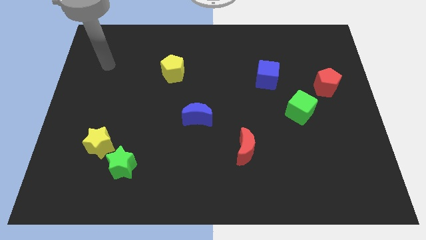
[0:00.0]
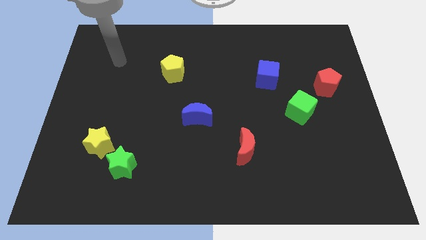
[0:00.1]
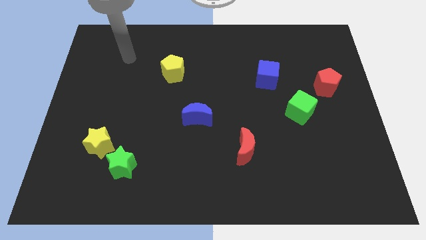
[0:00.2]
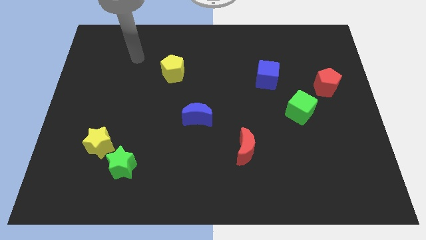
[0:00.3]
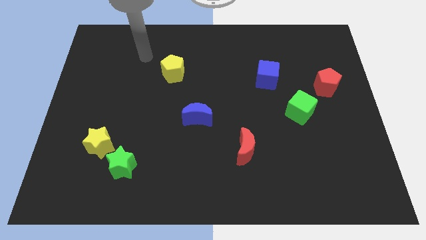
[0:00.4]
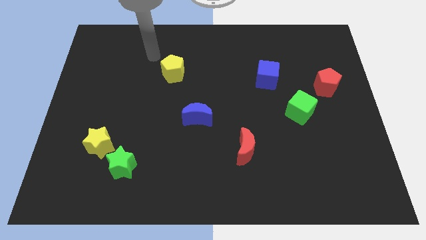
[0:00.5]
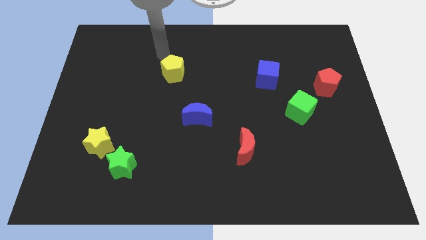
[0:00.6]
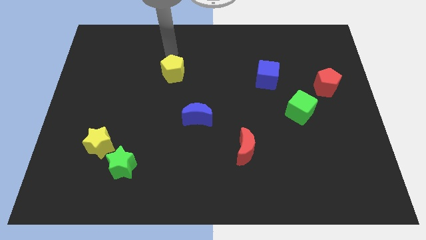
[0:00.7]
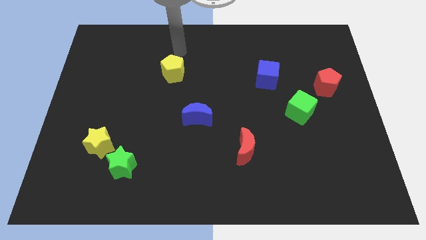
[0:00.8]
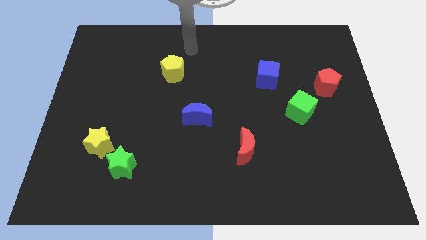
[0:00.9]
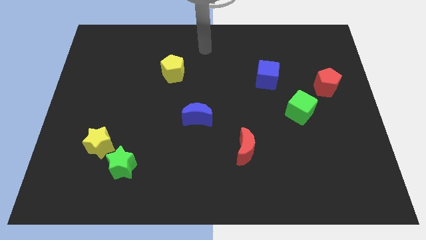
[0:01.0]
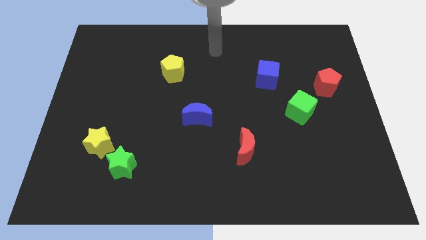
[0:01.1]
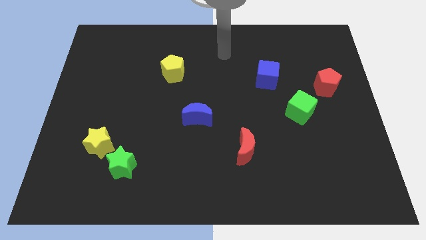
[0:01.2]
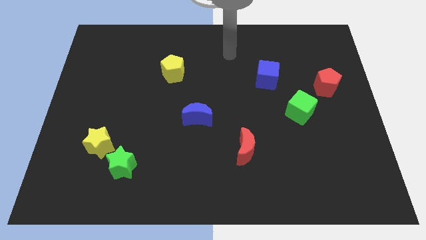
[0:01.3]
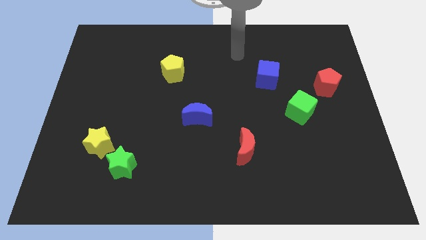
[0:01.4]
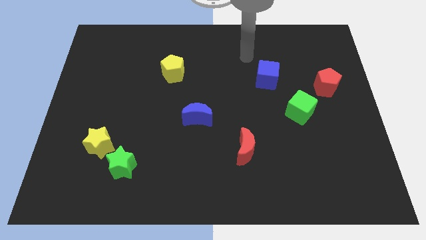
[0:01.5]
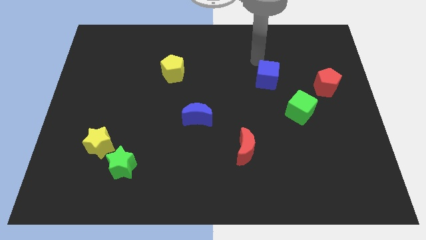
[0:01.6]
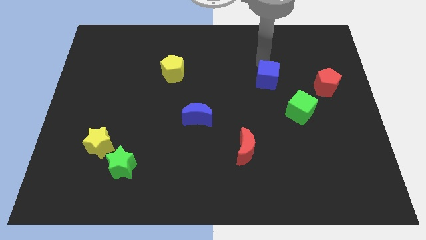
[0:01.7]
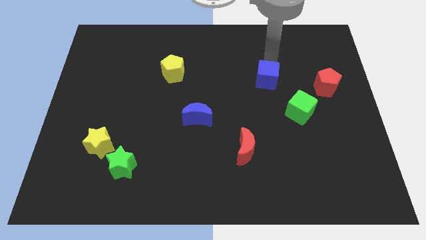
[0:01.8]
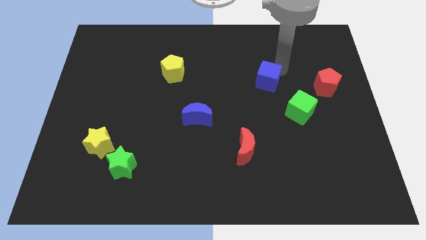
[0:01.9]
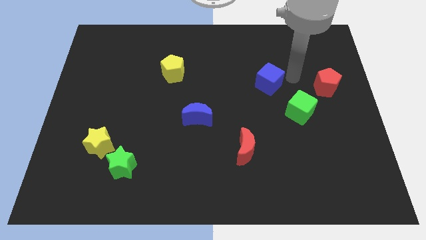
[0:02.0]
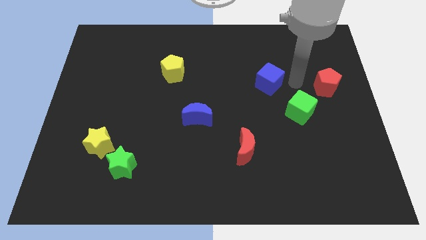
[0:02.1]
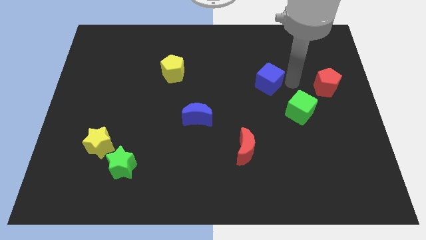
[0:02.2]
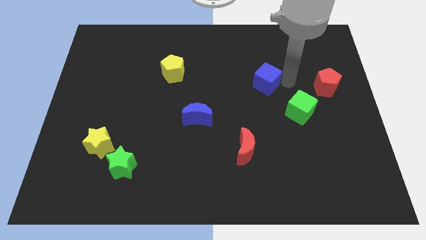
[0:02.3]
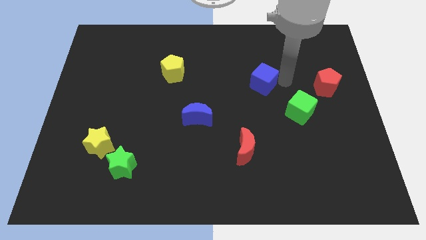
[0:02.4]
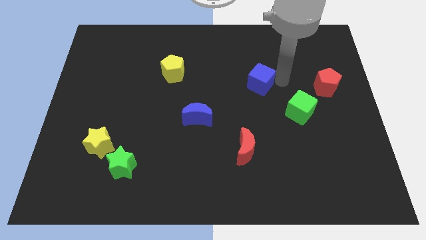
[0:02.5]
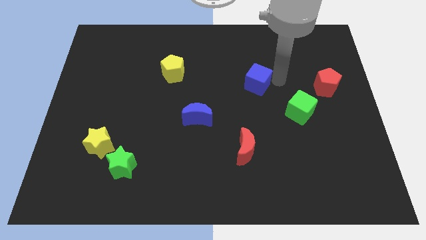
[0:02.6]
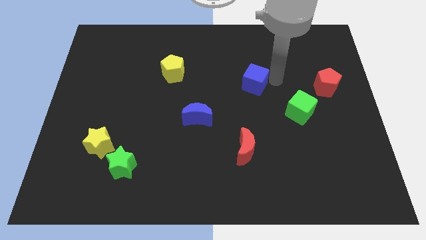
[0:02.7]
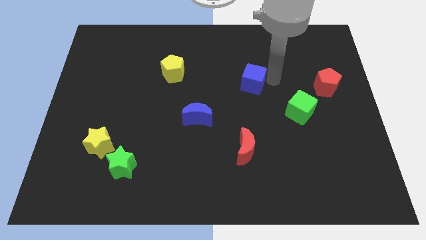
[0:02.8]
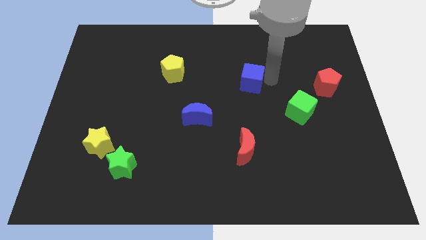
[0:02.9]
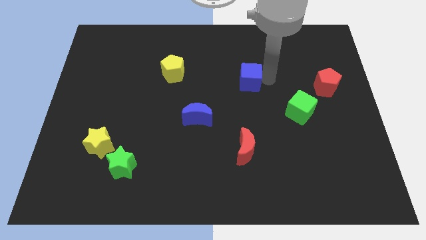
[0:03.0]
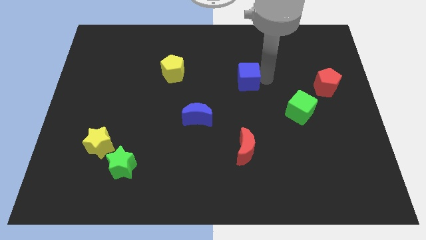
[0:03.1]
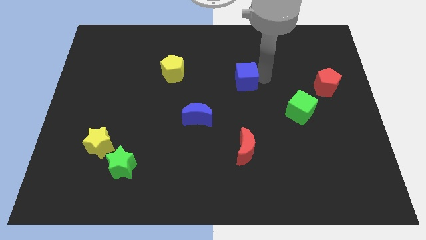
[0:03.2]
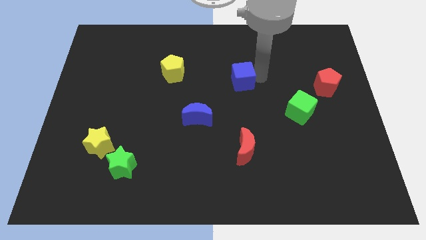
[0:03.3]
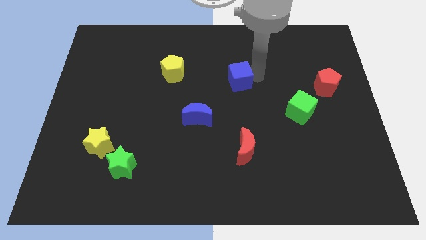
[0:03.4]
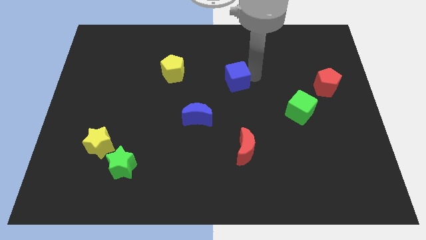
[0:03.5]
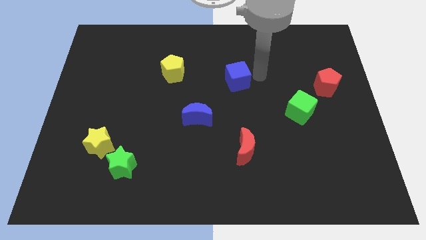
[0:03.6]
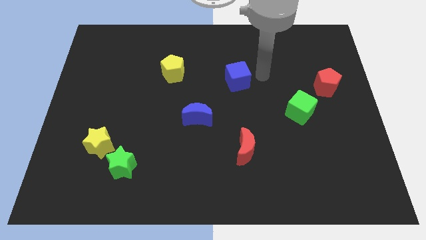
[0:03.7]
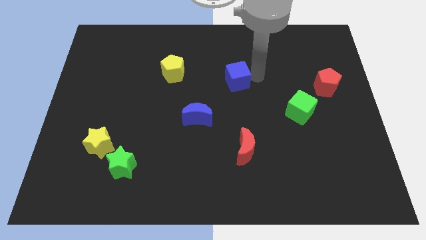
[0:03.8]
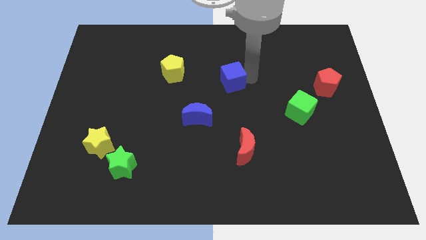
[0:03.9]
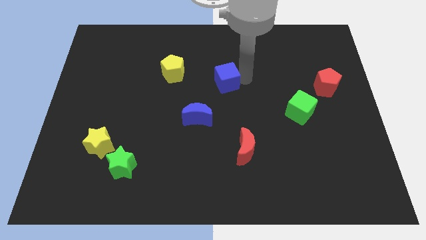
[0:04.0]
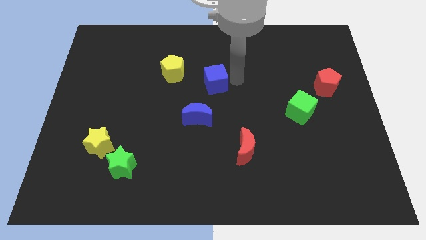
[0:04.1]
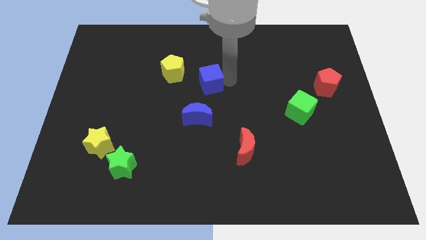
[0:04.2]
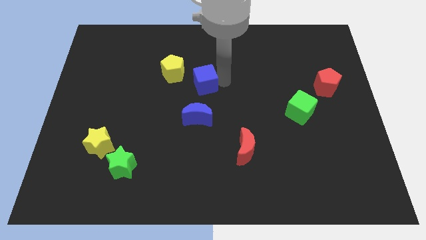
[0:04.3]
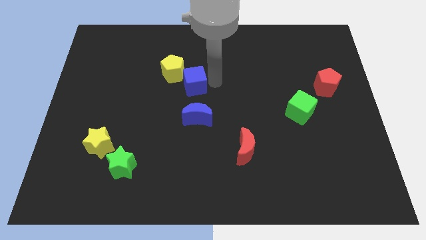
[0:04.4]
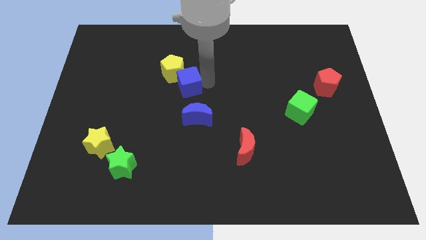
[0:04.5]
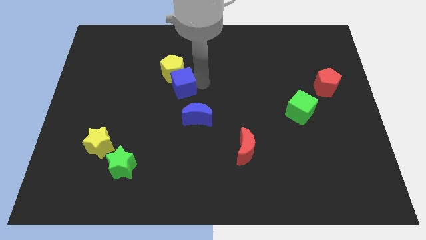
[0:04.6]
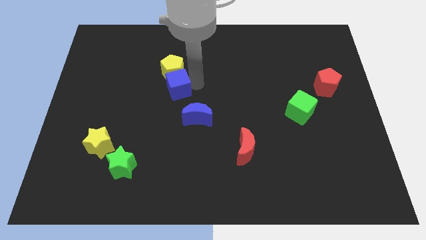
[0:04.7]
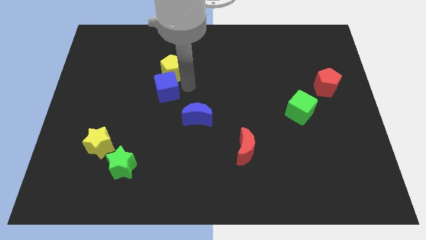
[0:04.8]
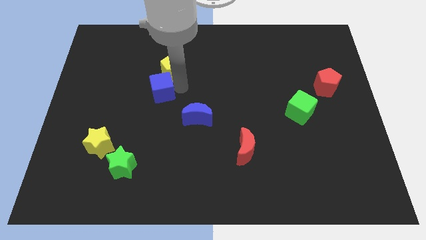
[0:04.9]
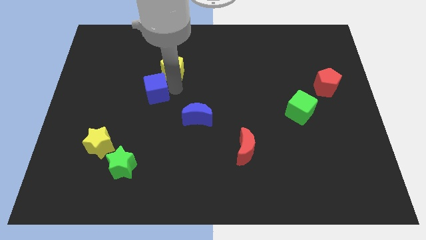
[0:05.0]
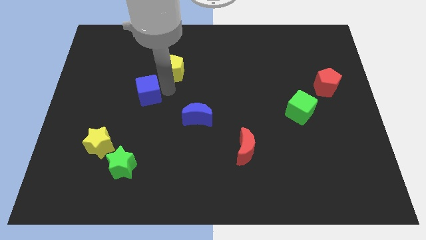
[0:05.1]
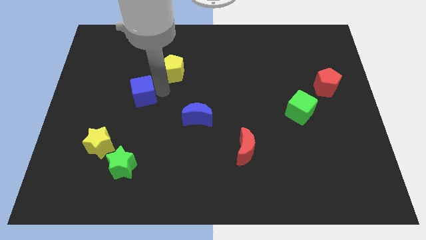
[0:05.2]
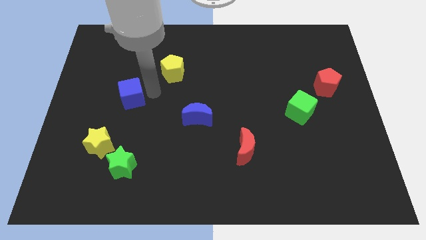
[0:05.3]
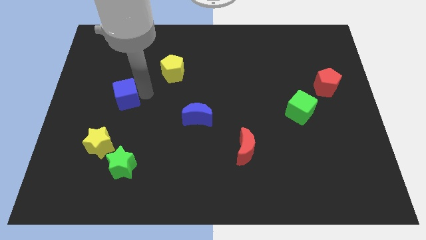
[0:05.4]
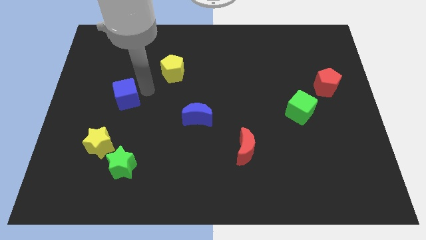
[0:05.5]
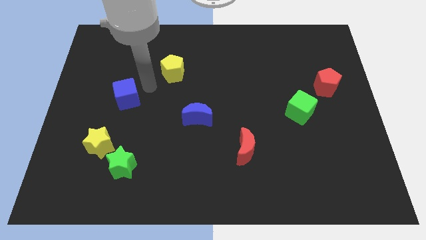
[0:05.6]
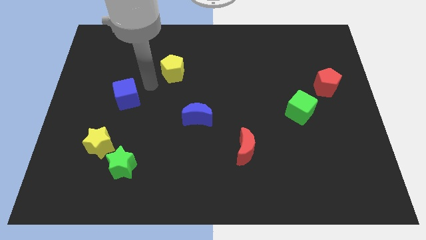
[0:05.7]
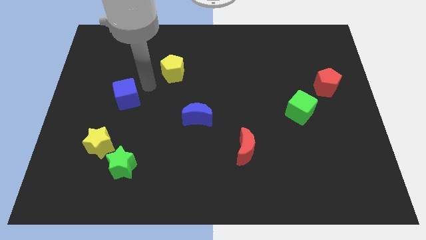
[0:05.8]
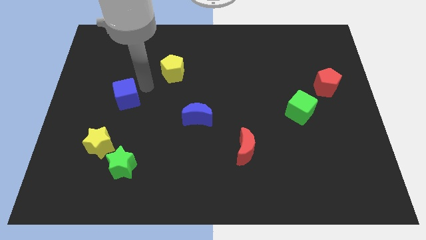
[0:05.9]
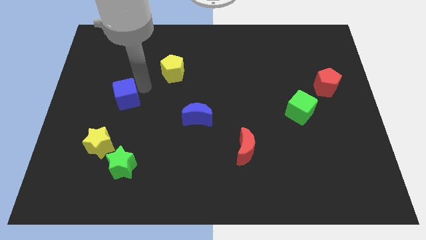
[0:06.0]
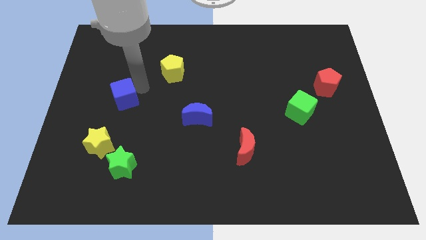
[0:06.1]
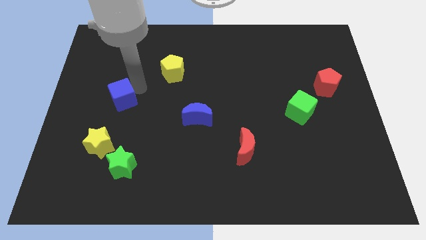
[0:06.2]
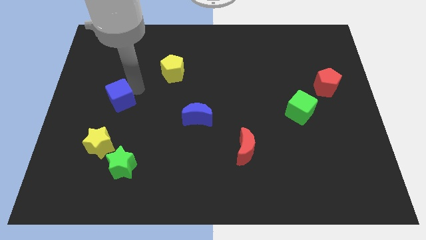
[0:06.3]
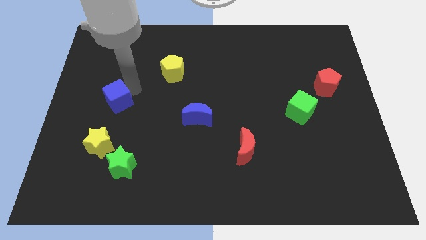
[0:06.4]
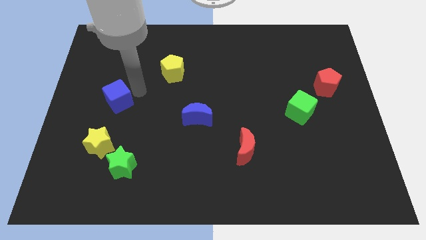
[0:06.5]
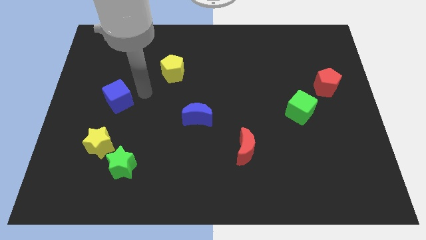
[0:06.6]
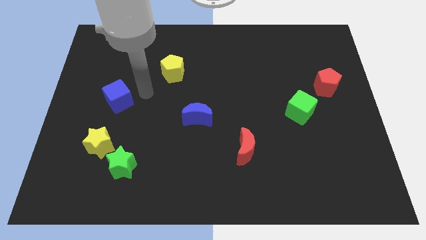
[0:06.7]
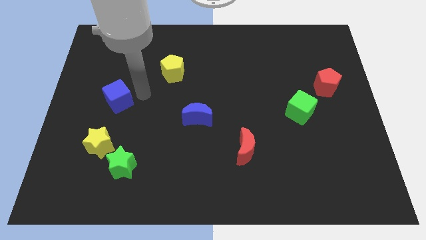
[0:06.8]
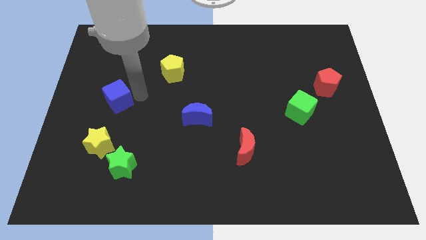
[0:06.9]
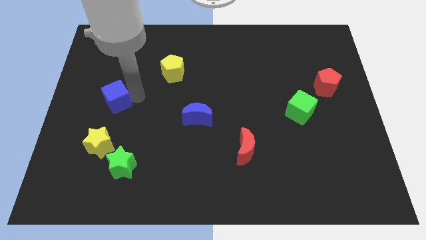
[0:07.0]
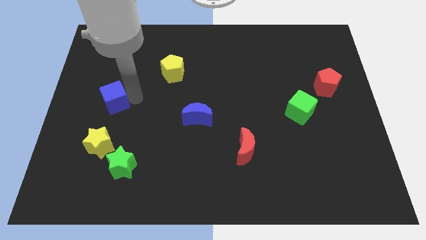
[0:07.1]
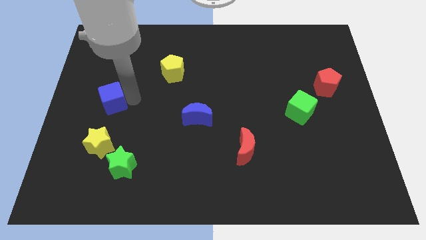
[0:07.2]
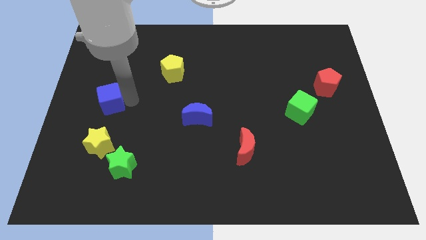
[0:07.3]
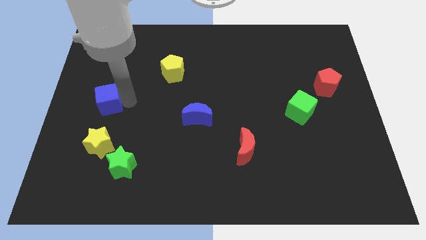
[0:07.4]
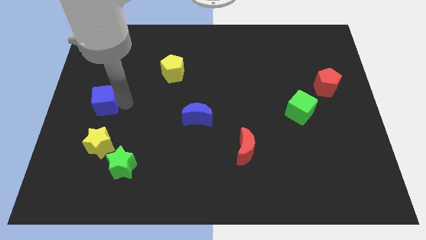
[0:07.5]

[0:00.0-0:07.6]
slide the blue cube to the left side
